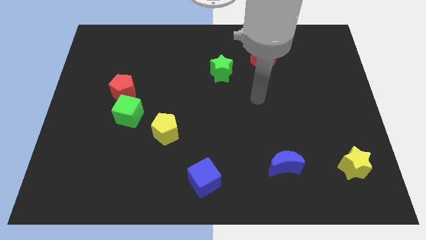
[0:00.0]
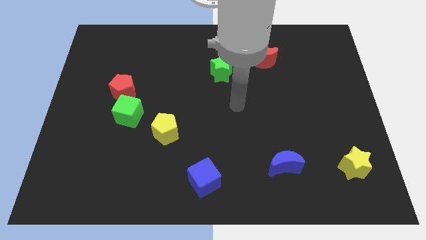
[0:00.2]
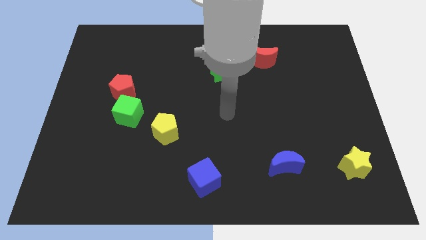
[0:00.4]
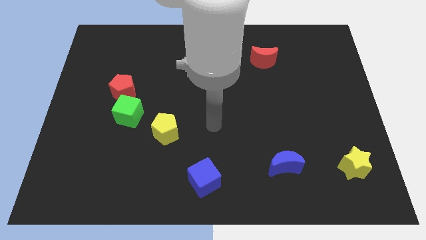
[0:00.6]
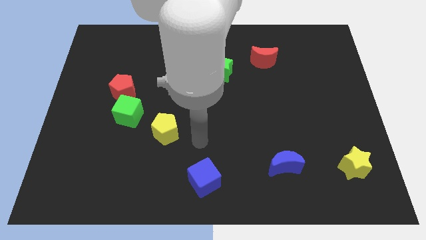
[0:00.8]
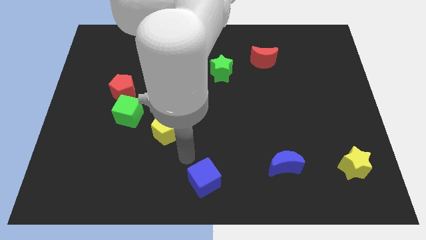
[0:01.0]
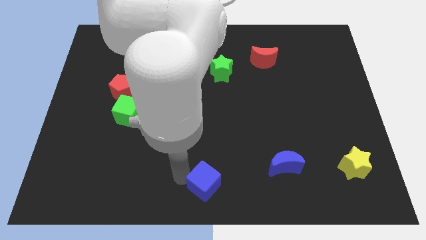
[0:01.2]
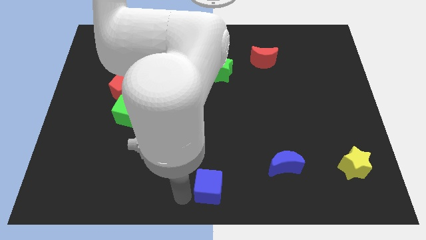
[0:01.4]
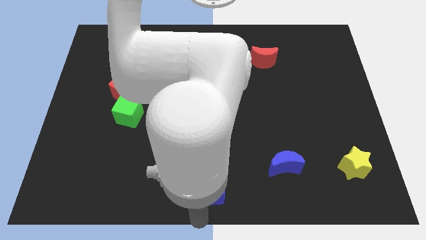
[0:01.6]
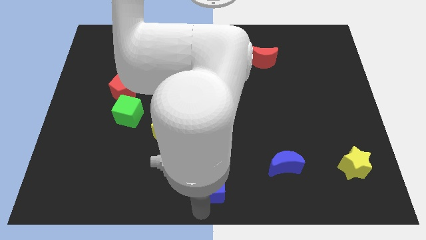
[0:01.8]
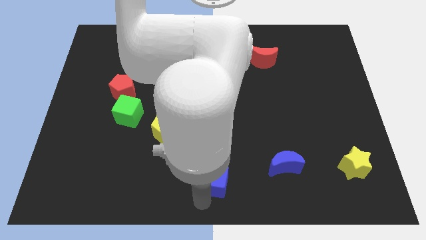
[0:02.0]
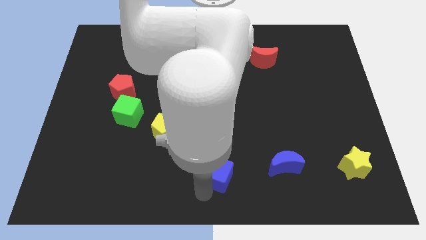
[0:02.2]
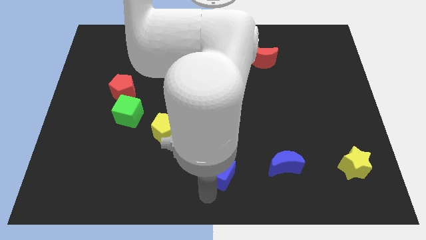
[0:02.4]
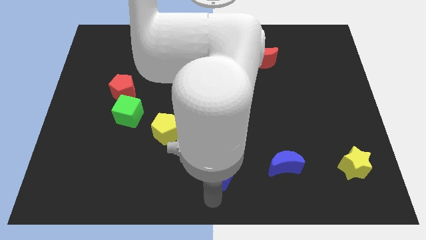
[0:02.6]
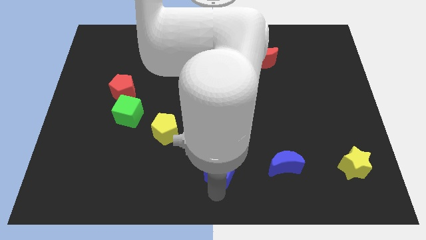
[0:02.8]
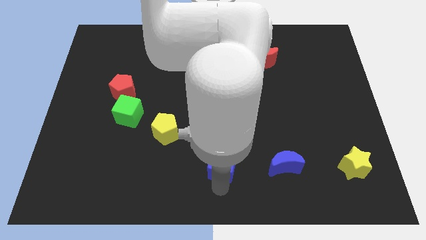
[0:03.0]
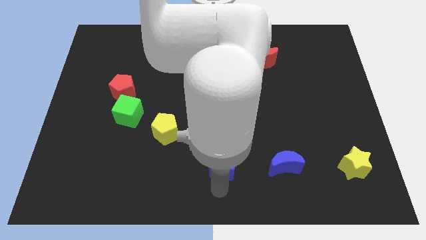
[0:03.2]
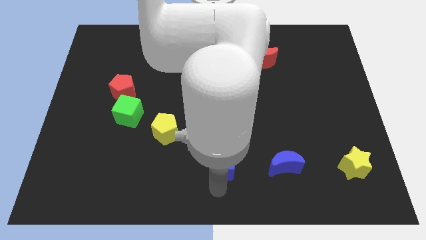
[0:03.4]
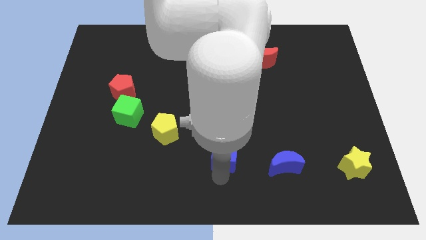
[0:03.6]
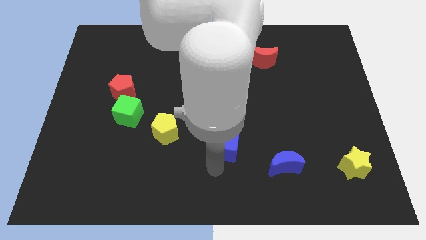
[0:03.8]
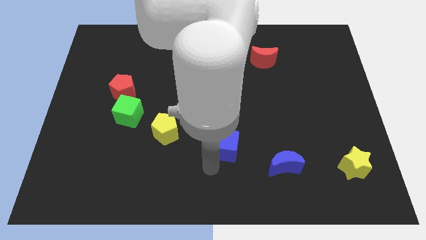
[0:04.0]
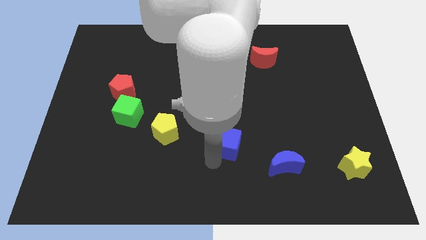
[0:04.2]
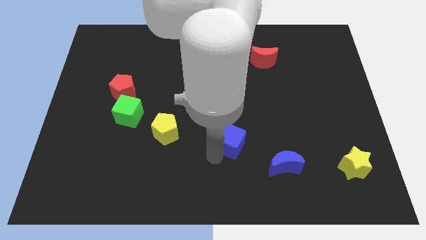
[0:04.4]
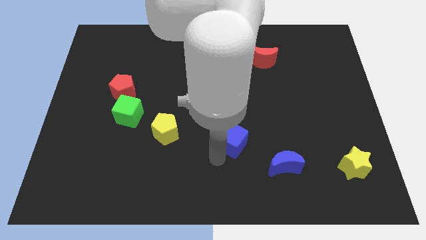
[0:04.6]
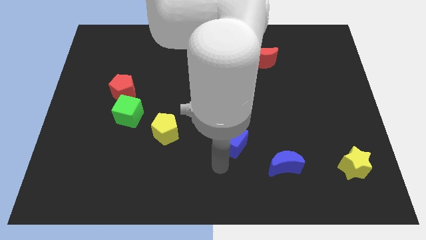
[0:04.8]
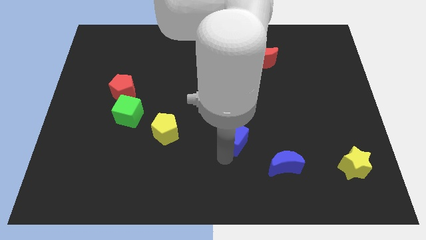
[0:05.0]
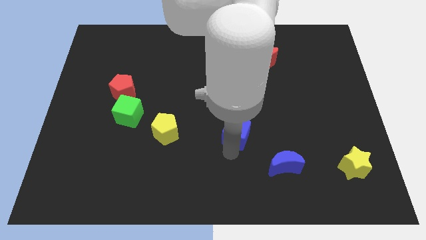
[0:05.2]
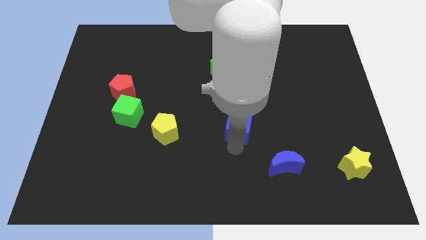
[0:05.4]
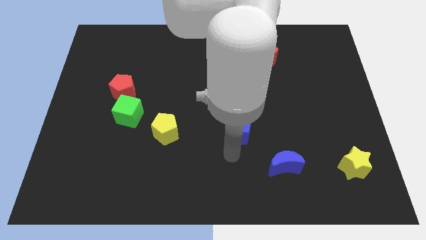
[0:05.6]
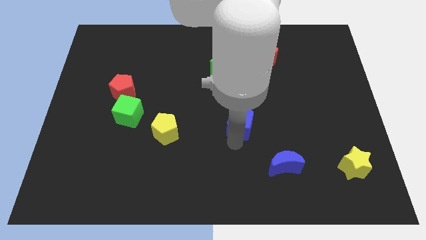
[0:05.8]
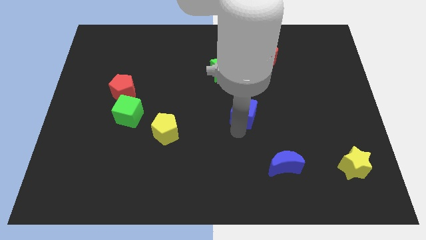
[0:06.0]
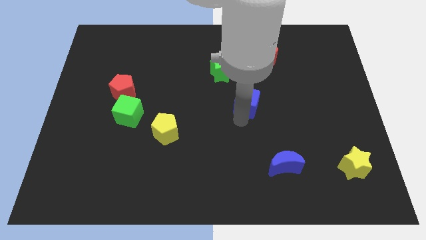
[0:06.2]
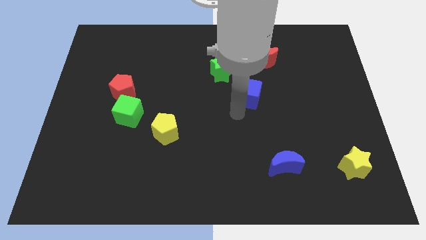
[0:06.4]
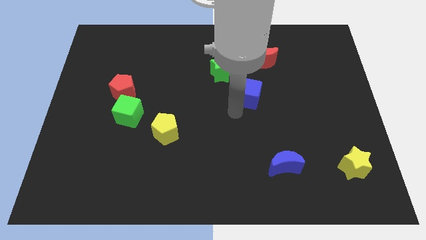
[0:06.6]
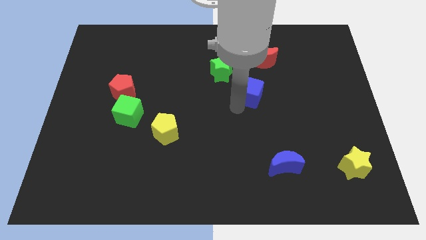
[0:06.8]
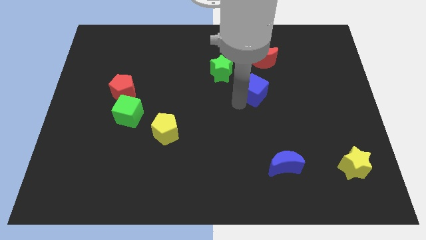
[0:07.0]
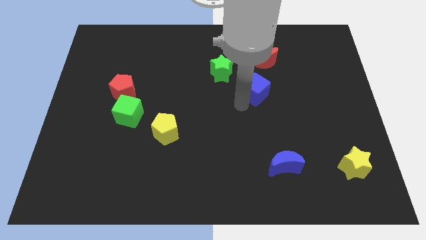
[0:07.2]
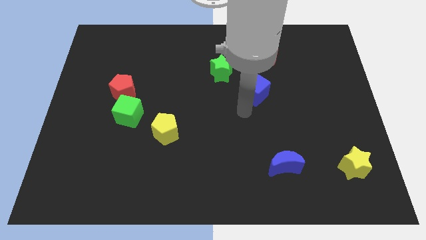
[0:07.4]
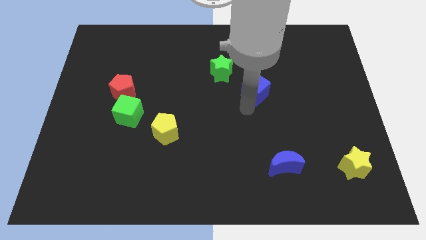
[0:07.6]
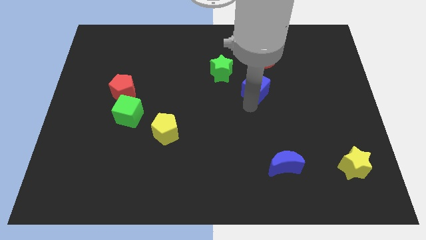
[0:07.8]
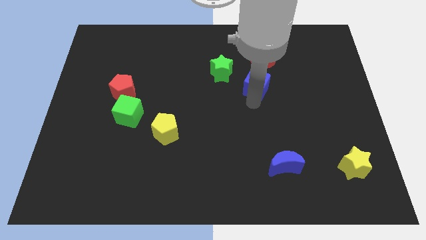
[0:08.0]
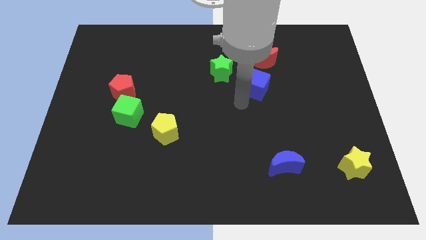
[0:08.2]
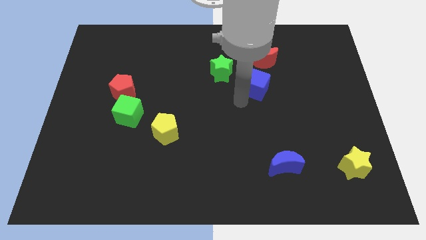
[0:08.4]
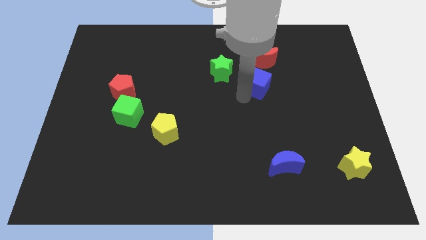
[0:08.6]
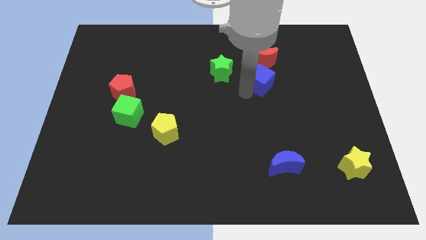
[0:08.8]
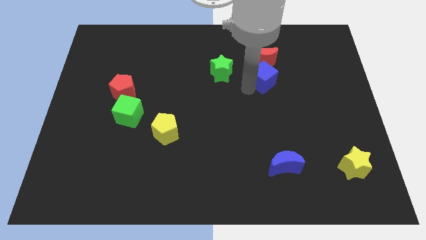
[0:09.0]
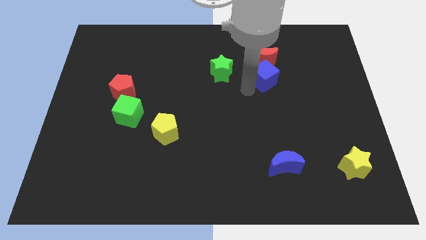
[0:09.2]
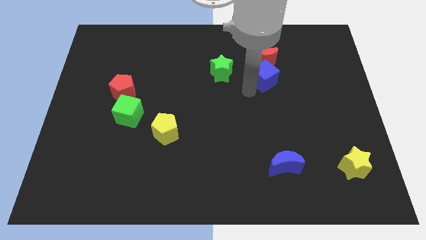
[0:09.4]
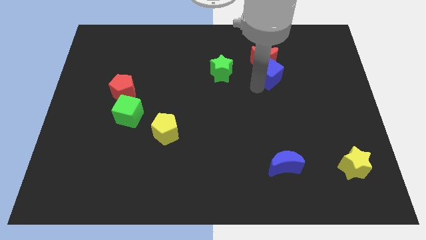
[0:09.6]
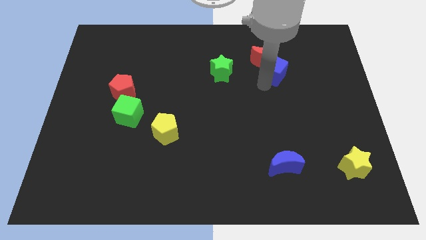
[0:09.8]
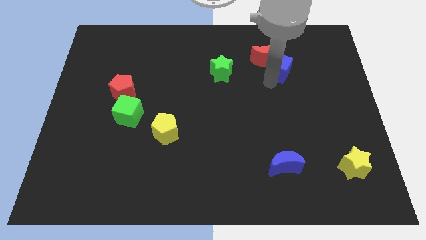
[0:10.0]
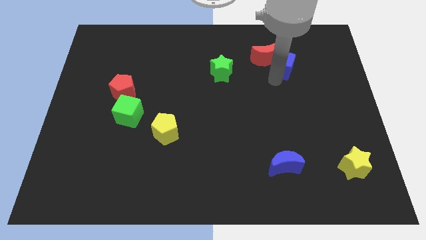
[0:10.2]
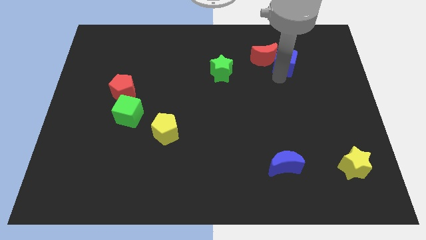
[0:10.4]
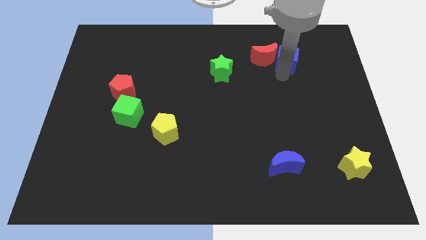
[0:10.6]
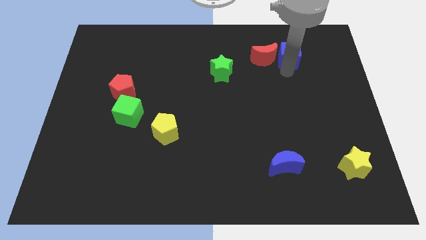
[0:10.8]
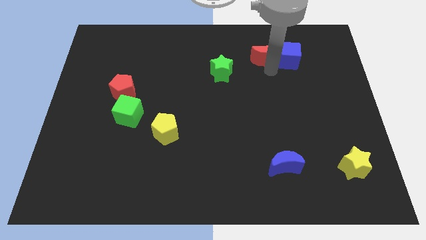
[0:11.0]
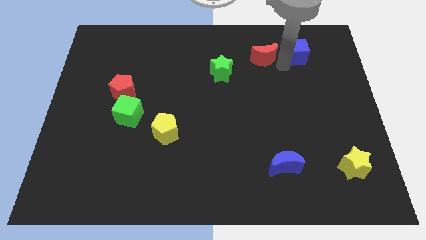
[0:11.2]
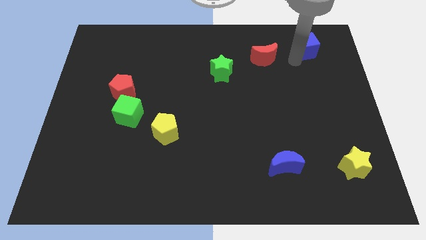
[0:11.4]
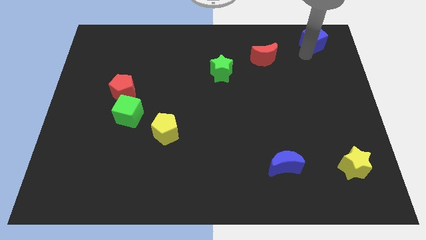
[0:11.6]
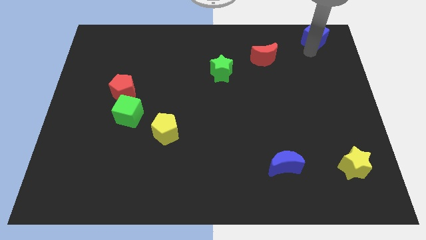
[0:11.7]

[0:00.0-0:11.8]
slide the blue cube to the top right

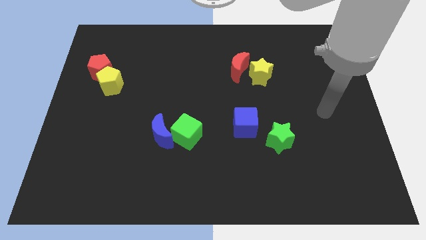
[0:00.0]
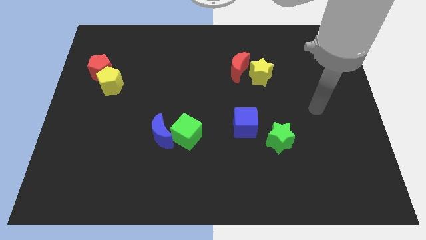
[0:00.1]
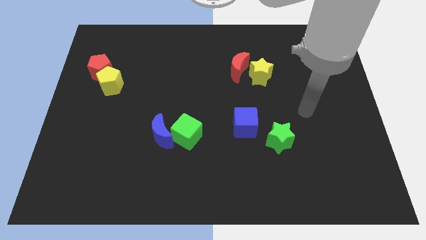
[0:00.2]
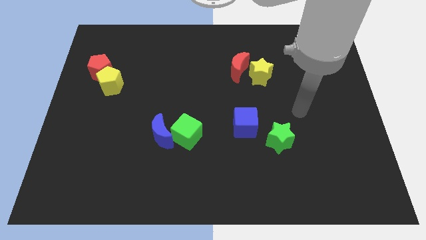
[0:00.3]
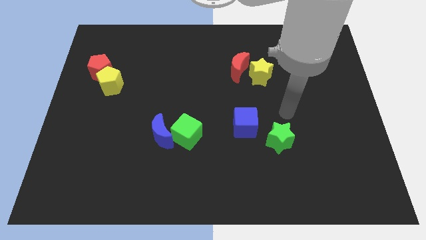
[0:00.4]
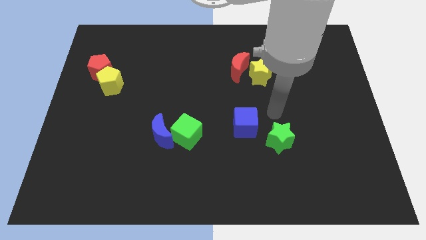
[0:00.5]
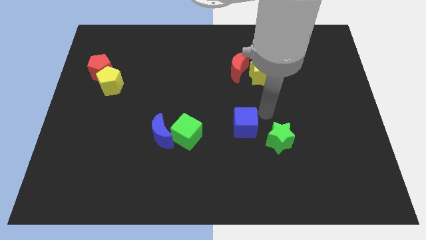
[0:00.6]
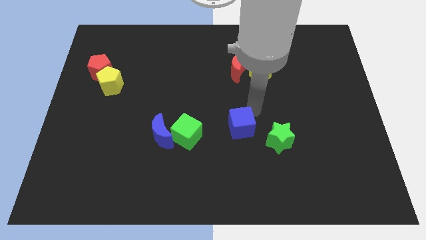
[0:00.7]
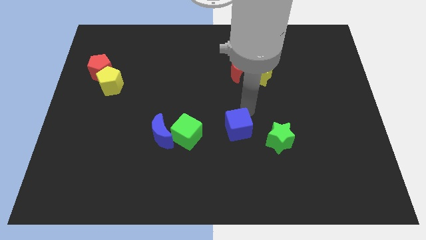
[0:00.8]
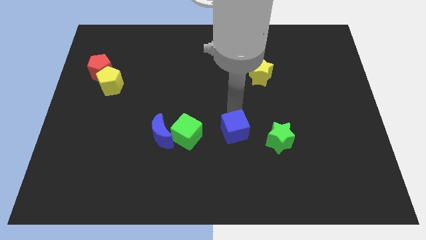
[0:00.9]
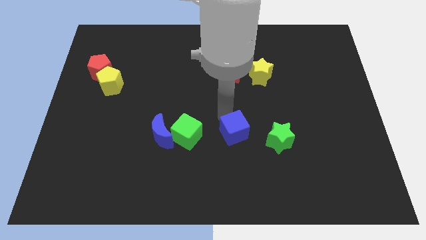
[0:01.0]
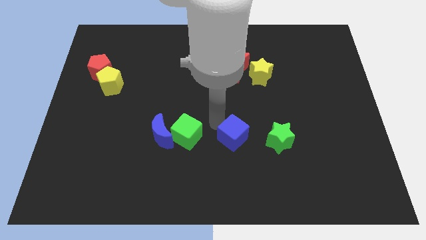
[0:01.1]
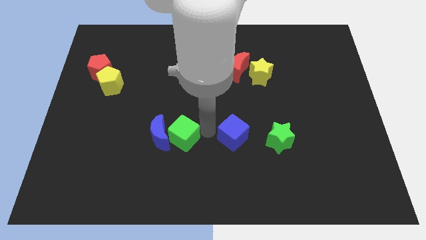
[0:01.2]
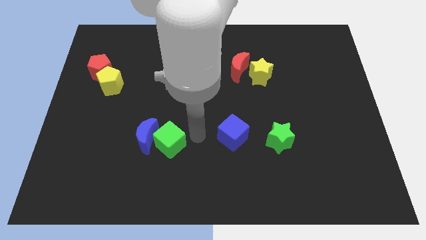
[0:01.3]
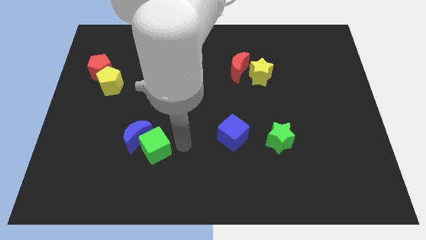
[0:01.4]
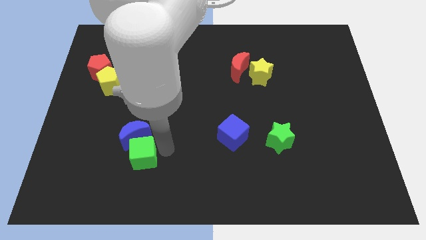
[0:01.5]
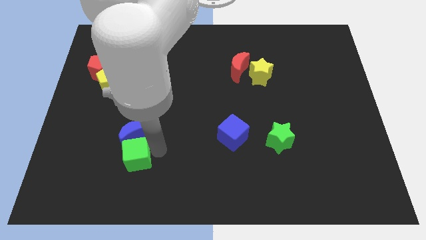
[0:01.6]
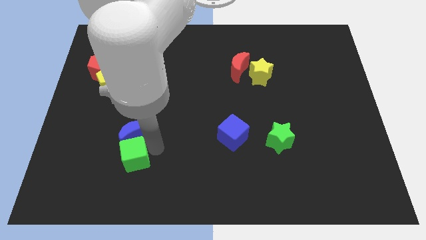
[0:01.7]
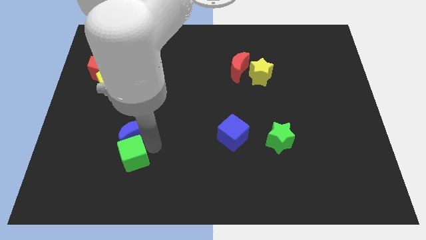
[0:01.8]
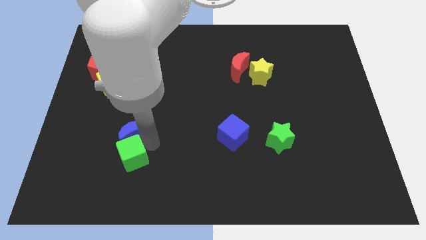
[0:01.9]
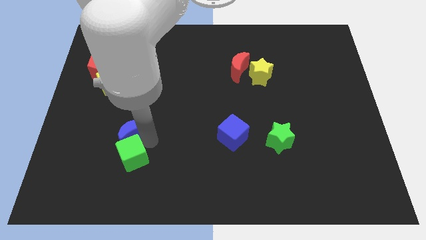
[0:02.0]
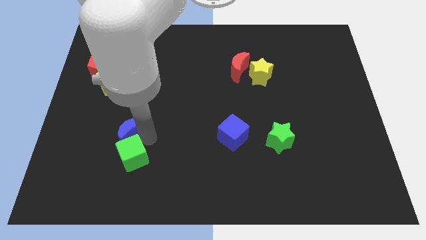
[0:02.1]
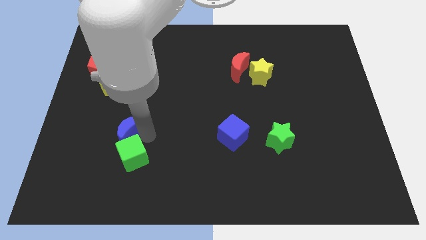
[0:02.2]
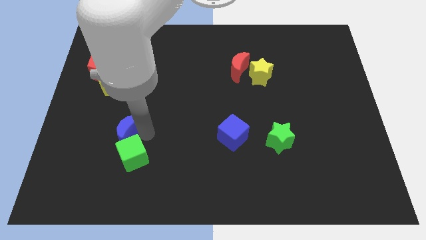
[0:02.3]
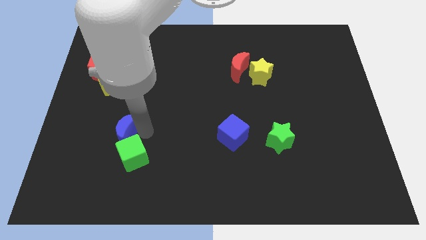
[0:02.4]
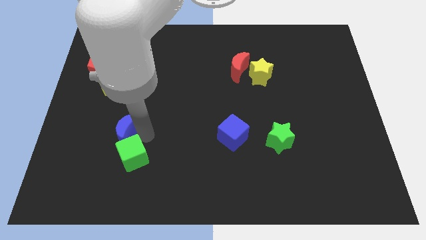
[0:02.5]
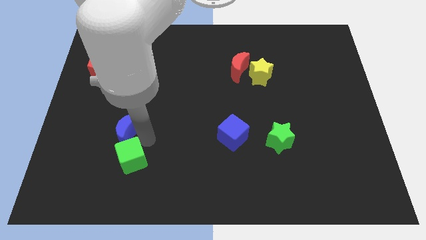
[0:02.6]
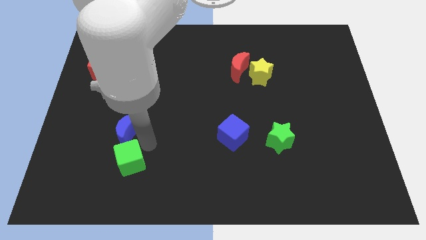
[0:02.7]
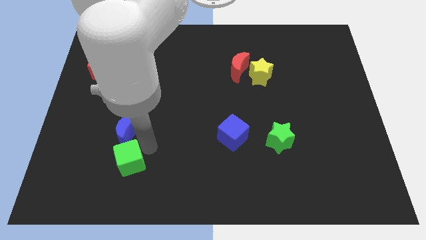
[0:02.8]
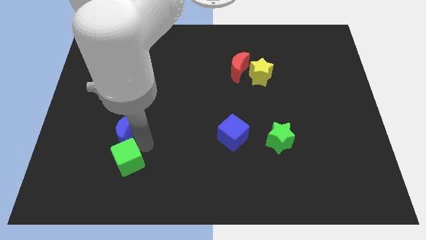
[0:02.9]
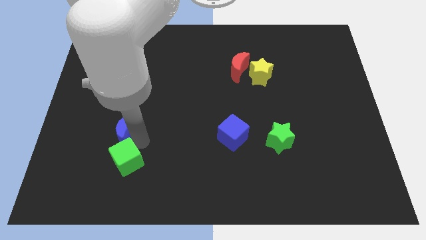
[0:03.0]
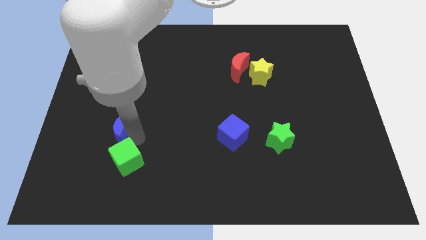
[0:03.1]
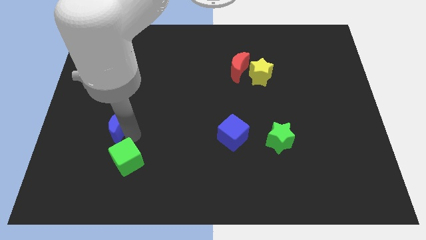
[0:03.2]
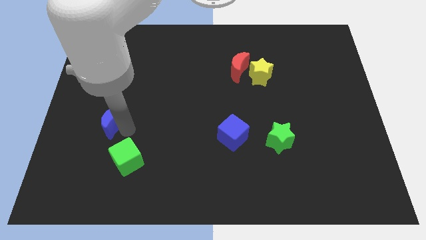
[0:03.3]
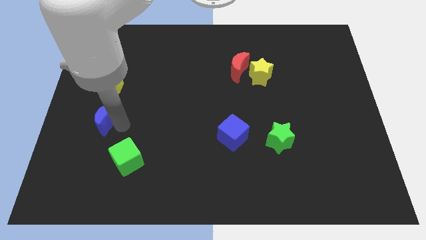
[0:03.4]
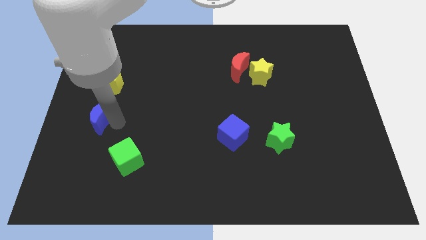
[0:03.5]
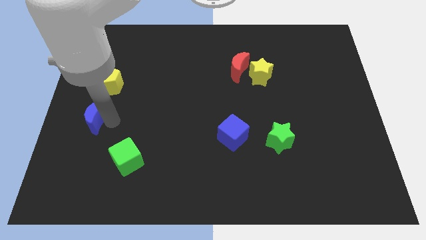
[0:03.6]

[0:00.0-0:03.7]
push the blue moon to the left side of the board
